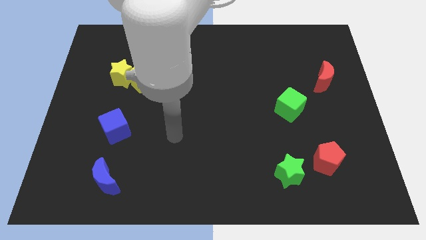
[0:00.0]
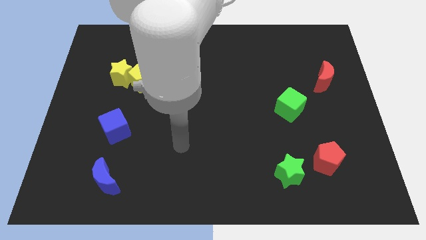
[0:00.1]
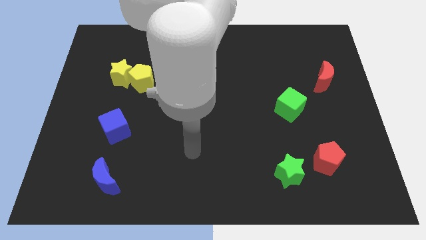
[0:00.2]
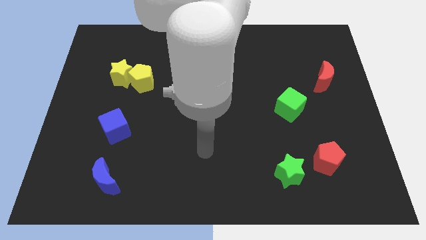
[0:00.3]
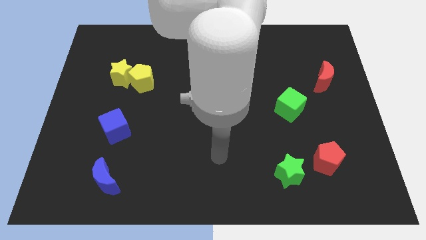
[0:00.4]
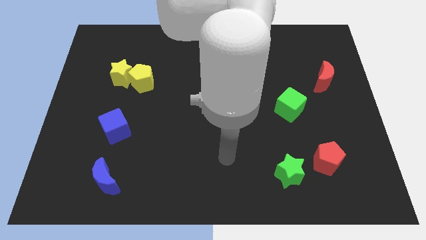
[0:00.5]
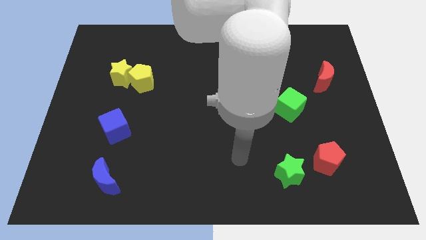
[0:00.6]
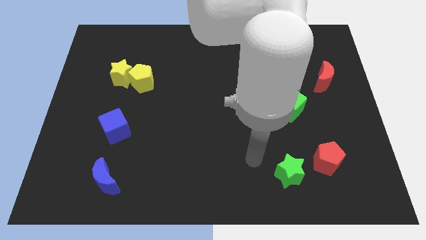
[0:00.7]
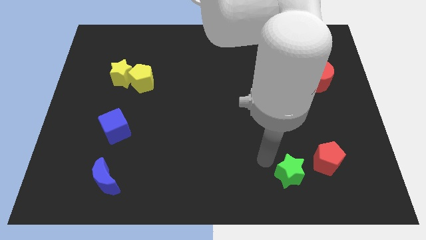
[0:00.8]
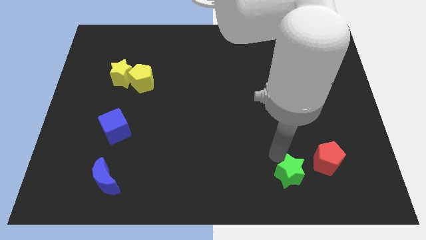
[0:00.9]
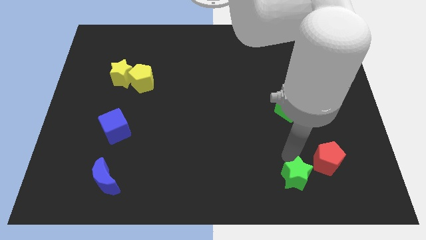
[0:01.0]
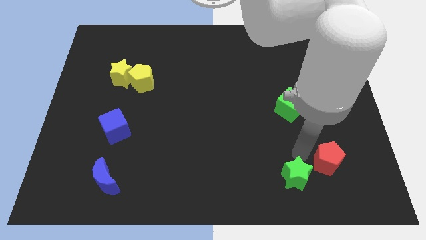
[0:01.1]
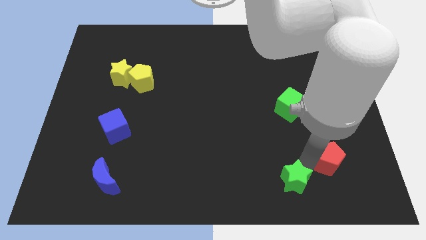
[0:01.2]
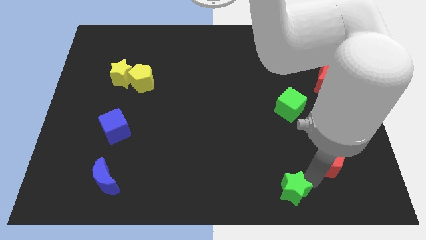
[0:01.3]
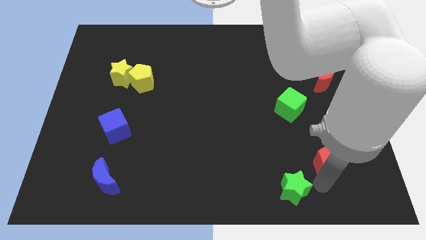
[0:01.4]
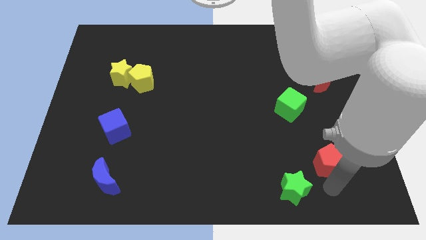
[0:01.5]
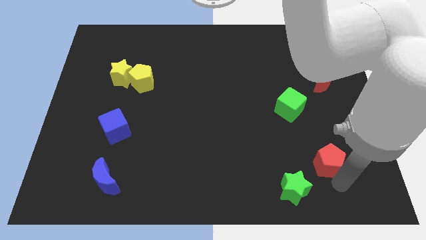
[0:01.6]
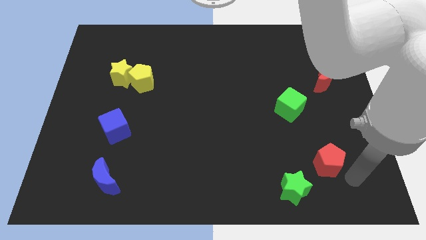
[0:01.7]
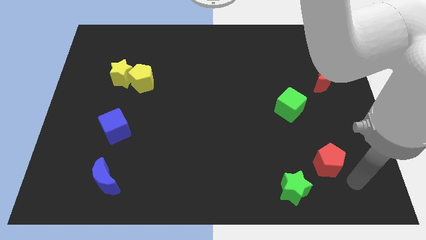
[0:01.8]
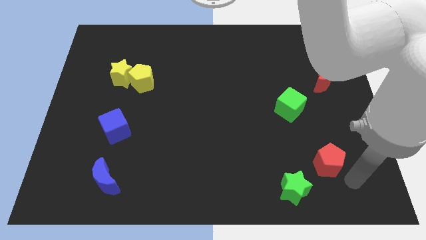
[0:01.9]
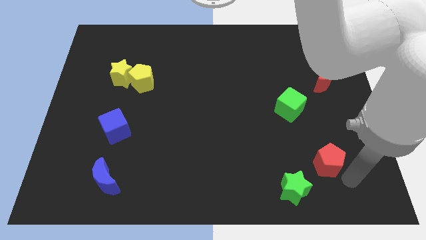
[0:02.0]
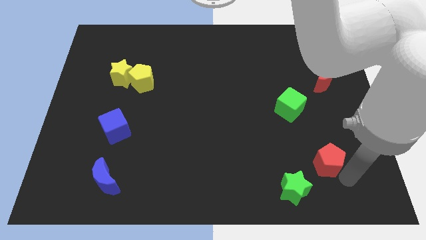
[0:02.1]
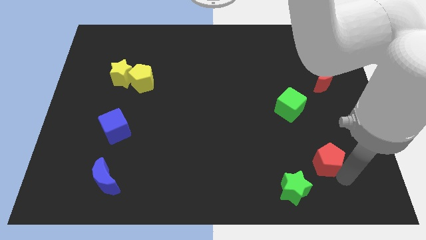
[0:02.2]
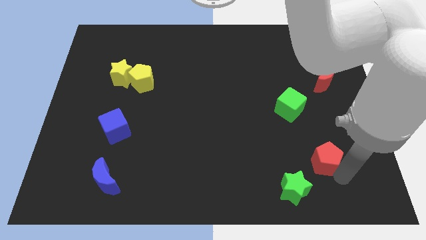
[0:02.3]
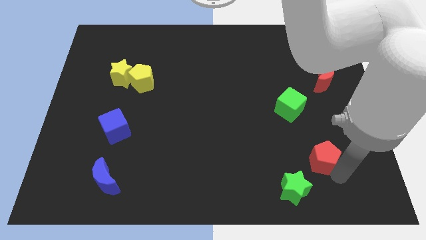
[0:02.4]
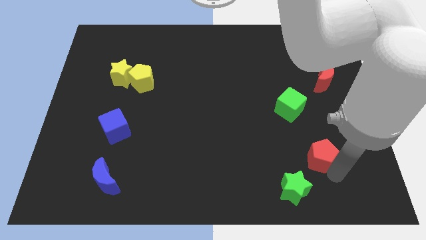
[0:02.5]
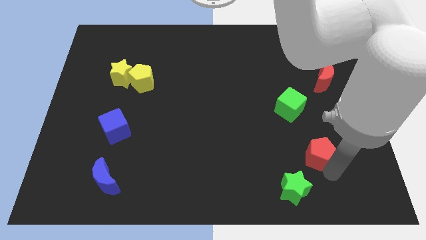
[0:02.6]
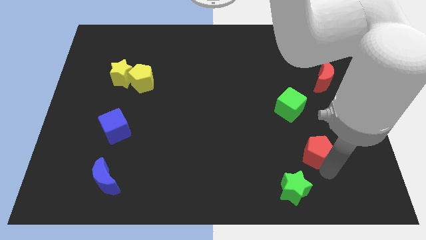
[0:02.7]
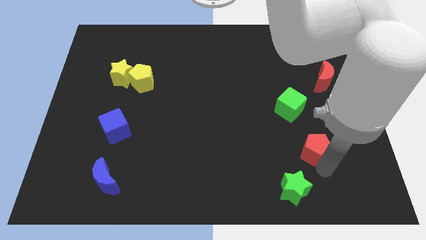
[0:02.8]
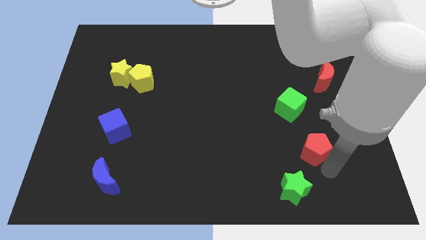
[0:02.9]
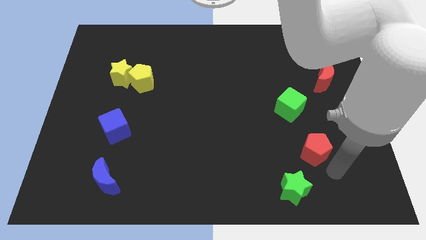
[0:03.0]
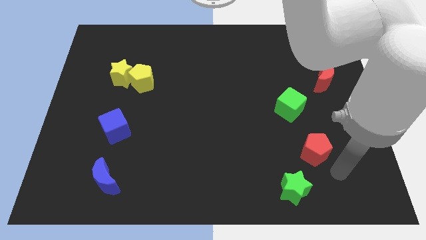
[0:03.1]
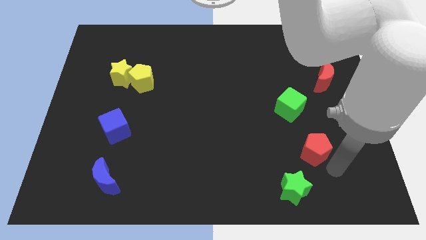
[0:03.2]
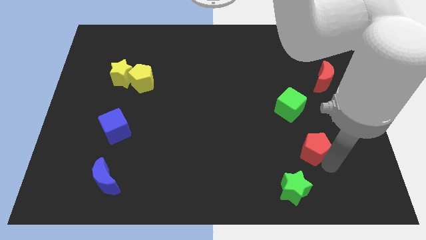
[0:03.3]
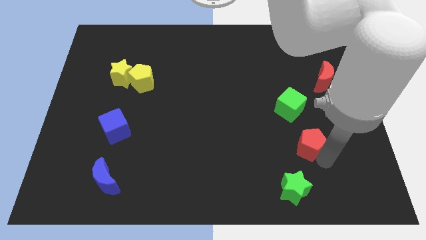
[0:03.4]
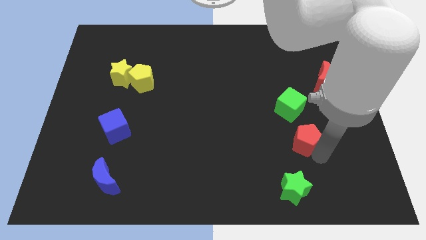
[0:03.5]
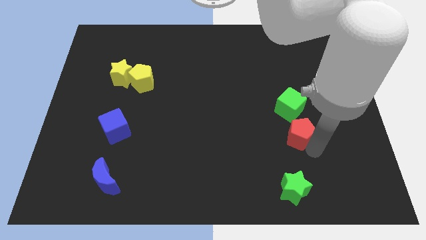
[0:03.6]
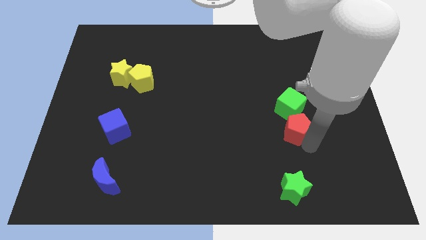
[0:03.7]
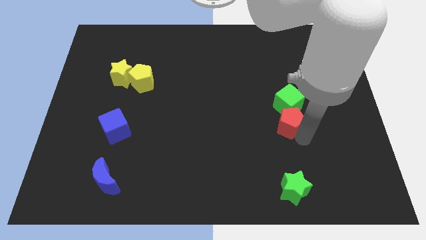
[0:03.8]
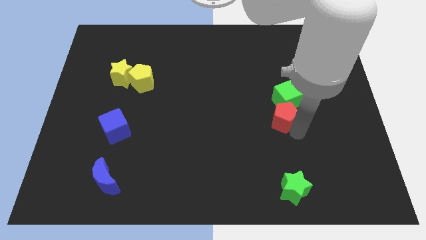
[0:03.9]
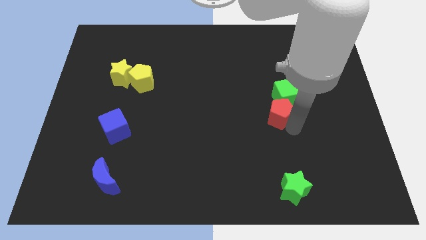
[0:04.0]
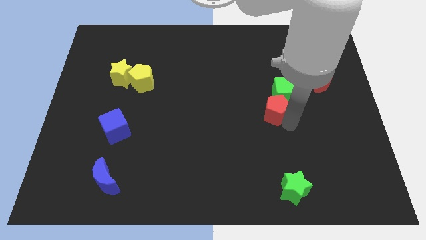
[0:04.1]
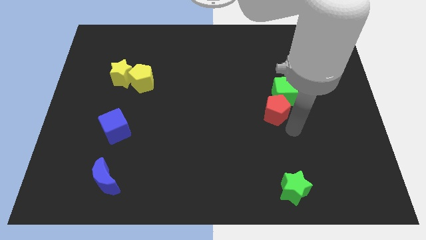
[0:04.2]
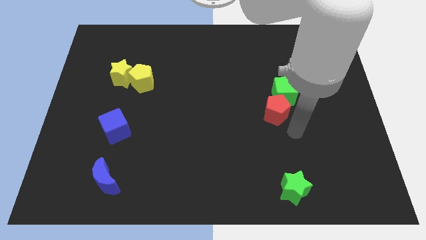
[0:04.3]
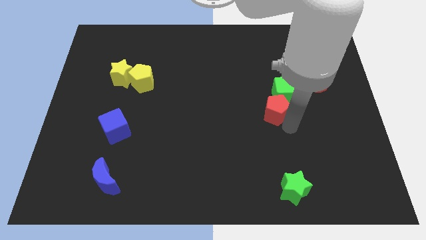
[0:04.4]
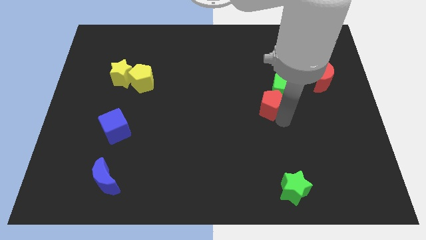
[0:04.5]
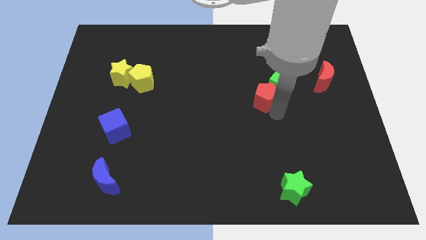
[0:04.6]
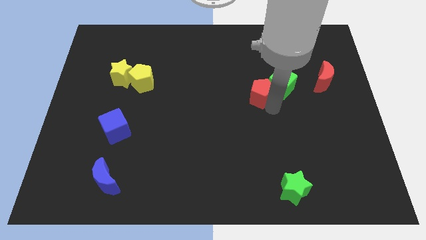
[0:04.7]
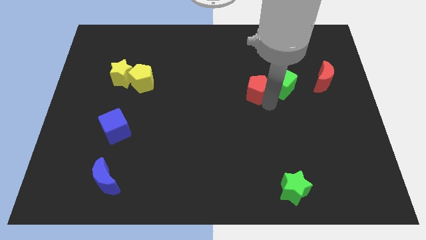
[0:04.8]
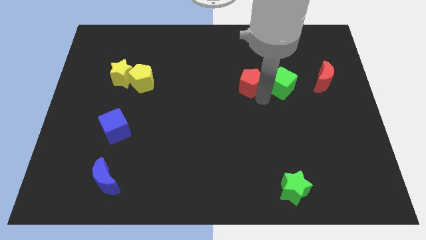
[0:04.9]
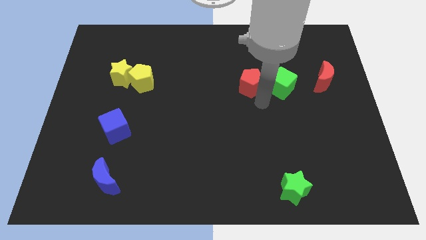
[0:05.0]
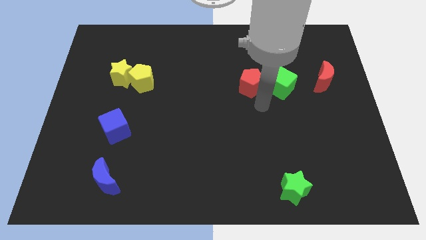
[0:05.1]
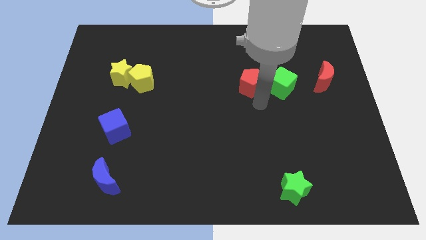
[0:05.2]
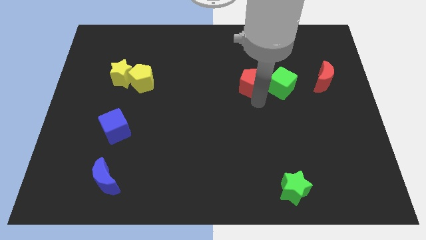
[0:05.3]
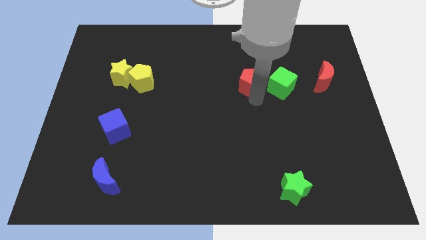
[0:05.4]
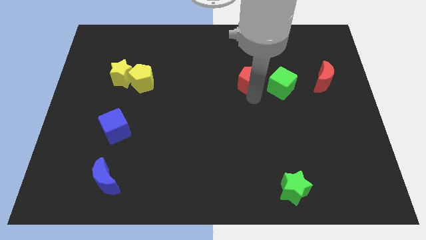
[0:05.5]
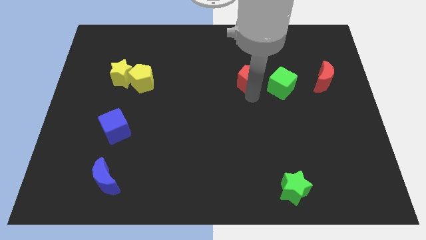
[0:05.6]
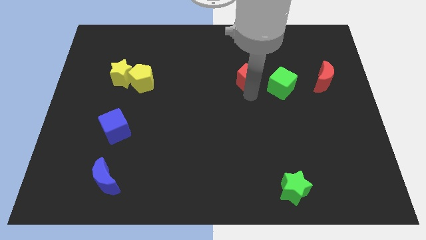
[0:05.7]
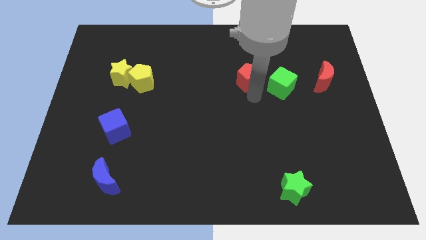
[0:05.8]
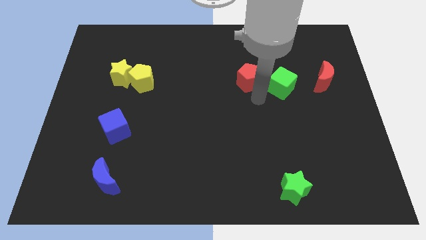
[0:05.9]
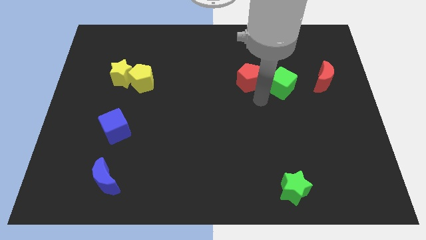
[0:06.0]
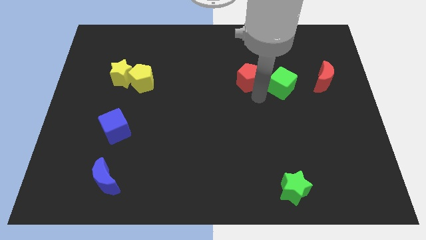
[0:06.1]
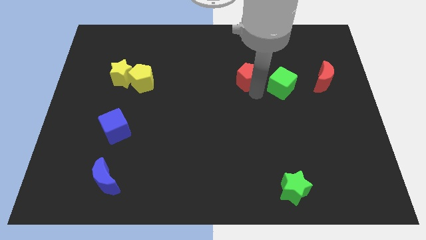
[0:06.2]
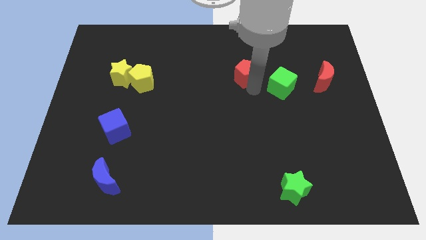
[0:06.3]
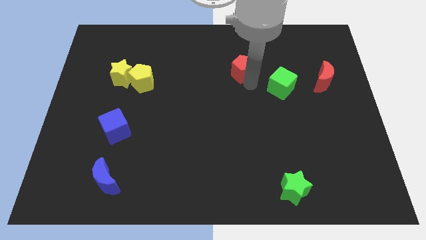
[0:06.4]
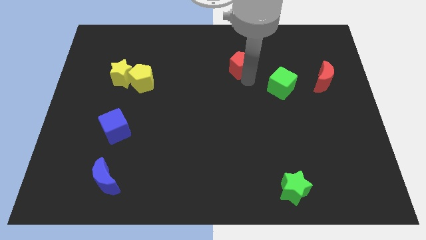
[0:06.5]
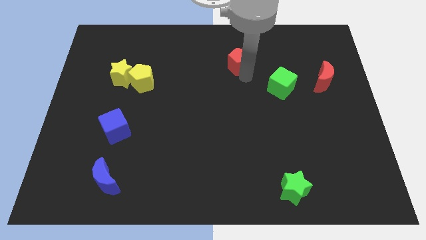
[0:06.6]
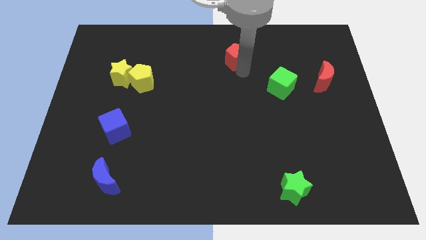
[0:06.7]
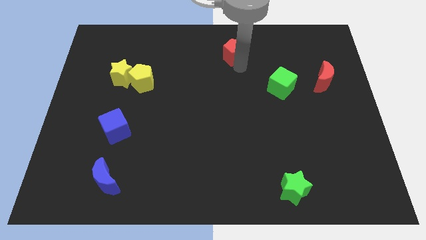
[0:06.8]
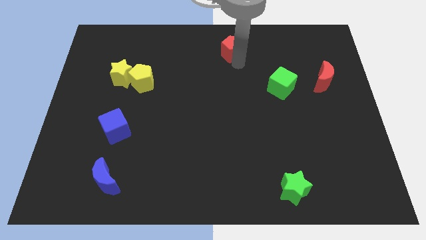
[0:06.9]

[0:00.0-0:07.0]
put the red pentagon to the top

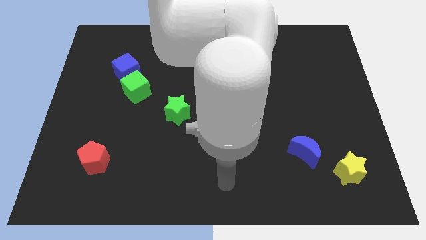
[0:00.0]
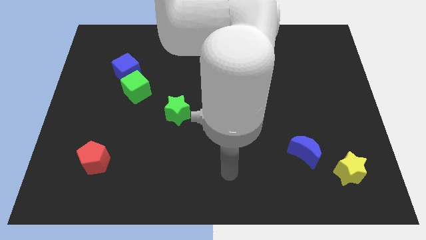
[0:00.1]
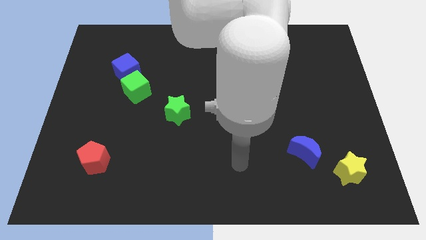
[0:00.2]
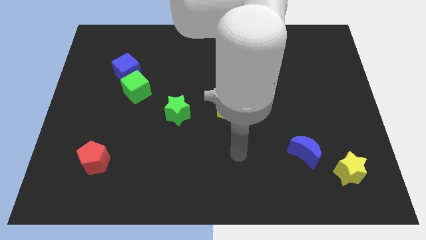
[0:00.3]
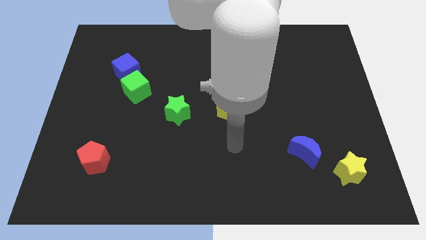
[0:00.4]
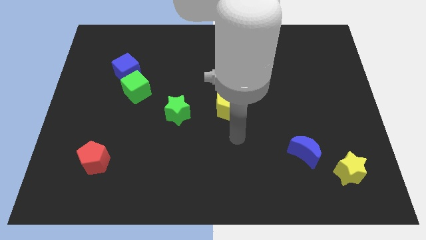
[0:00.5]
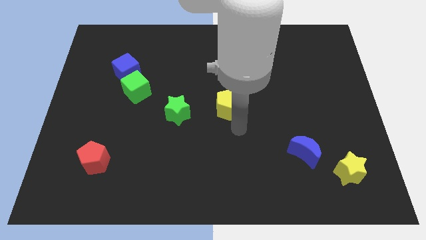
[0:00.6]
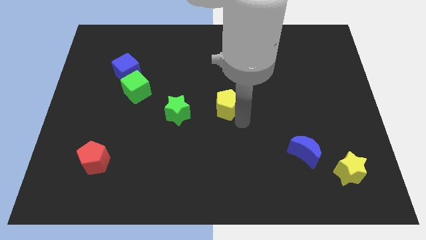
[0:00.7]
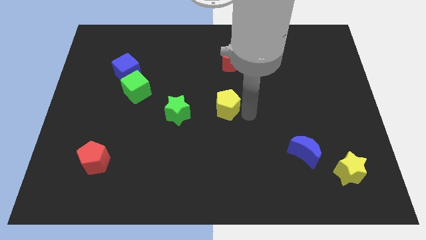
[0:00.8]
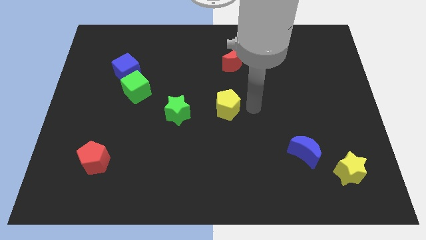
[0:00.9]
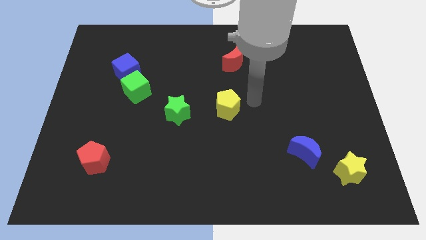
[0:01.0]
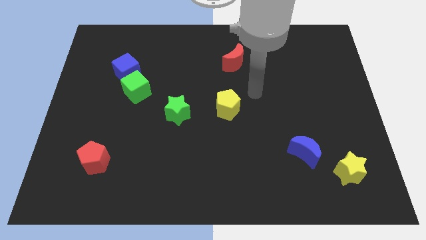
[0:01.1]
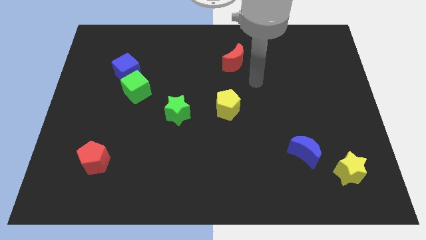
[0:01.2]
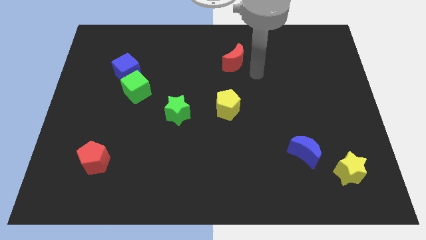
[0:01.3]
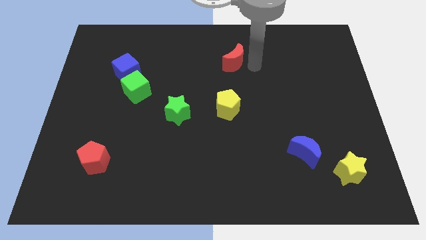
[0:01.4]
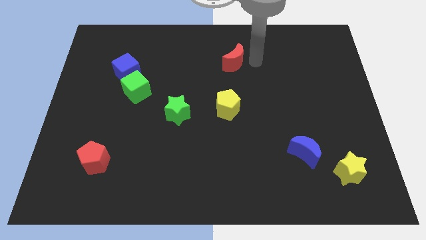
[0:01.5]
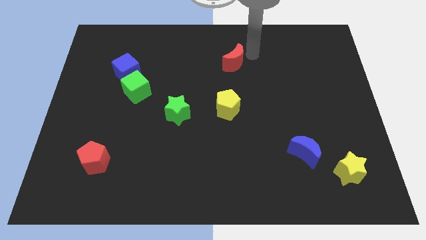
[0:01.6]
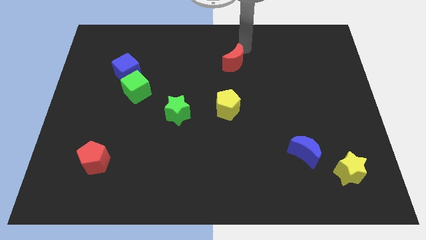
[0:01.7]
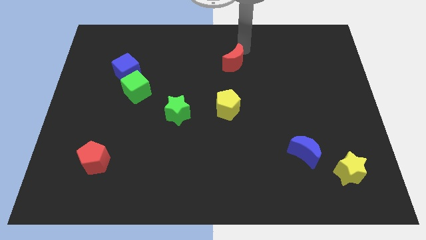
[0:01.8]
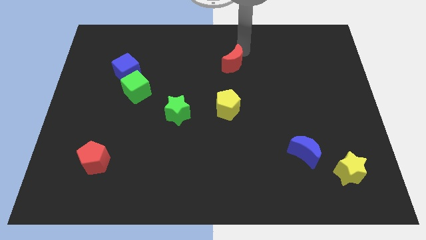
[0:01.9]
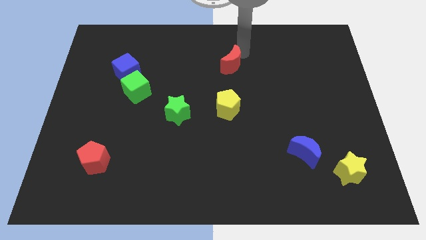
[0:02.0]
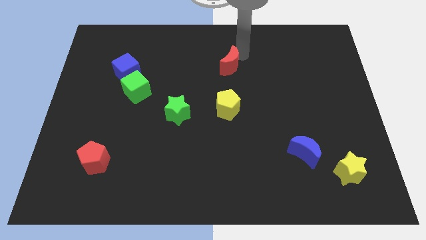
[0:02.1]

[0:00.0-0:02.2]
move the red moon to the middle of the board
